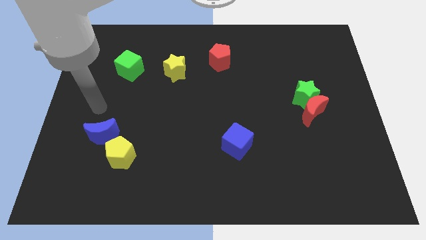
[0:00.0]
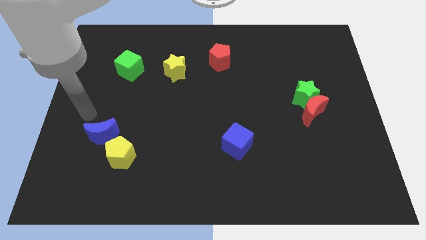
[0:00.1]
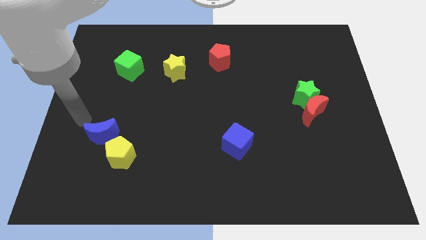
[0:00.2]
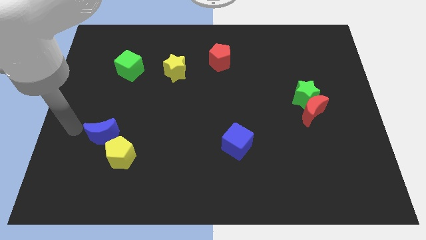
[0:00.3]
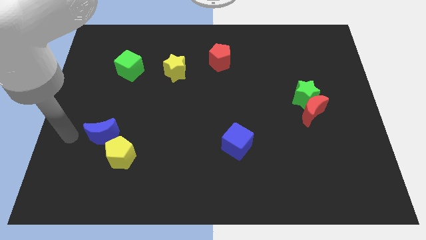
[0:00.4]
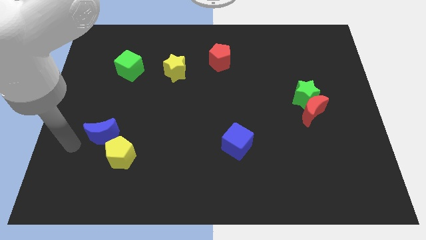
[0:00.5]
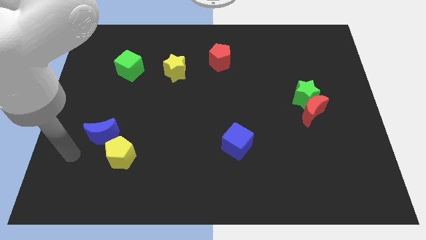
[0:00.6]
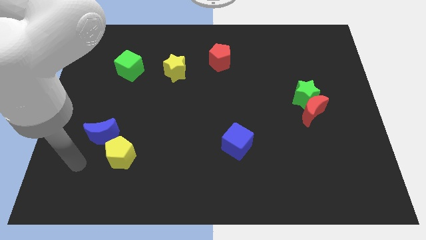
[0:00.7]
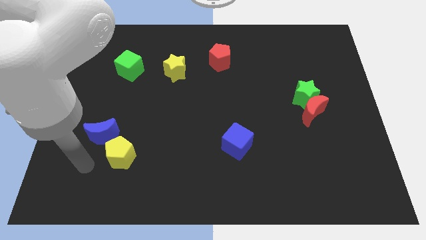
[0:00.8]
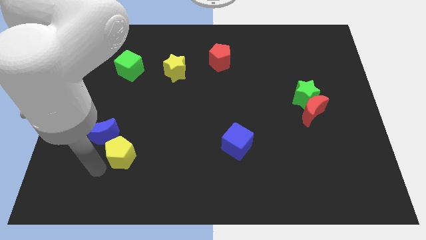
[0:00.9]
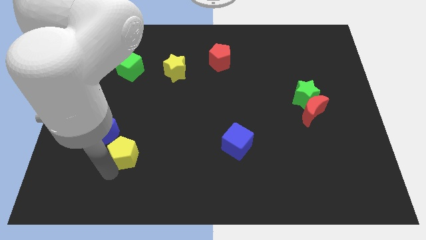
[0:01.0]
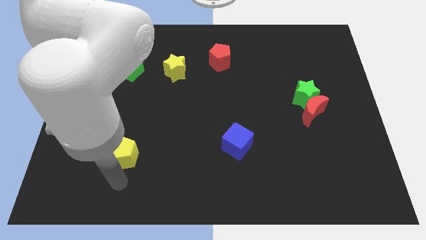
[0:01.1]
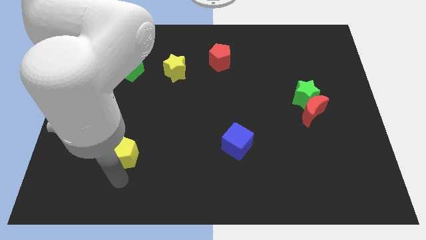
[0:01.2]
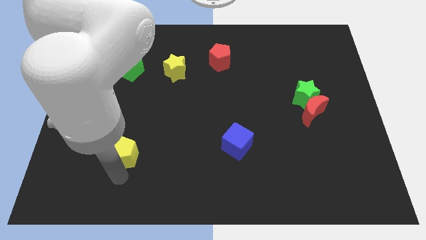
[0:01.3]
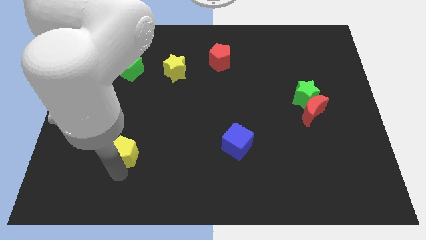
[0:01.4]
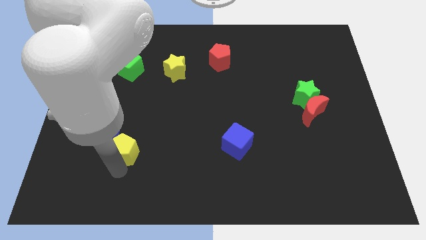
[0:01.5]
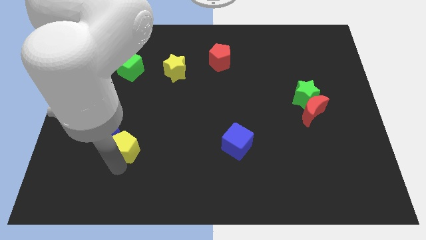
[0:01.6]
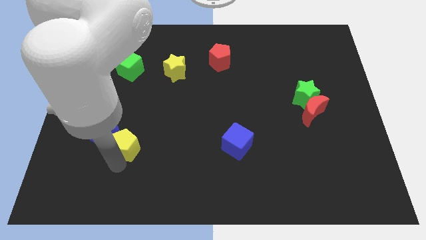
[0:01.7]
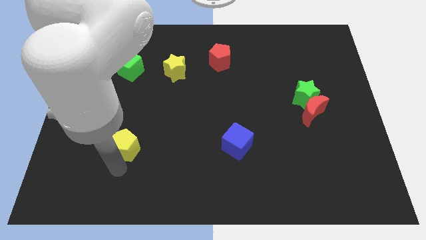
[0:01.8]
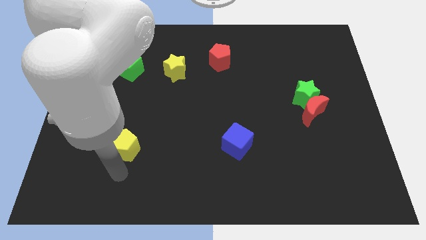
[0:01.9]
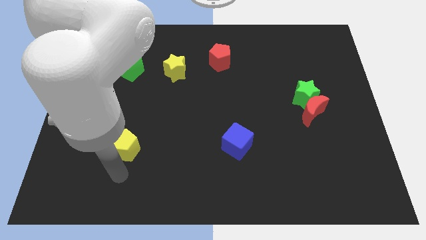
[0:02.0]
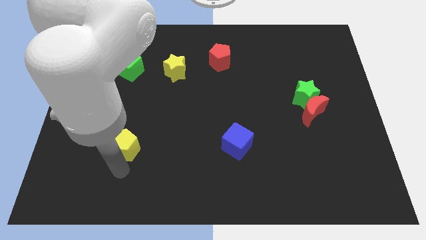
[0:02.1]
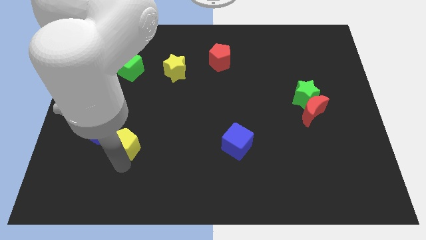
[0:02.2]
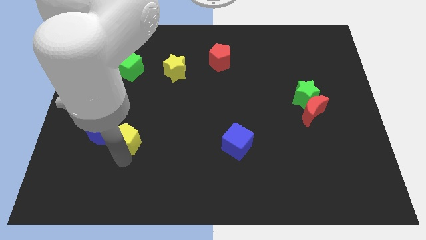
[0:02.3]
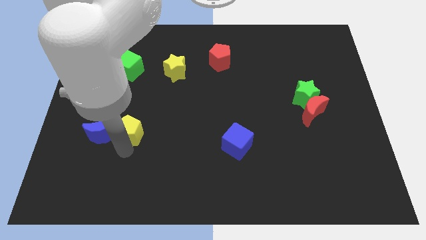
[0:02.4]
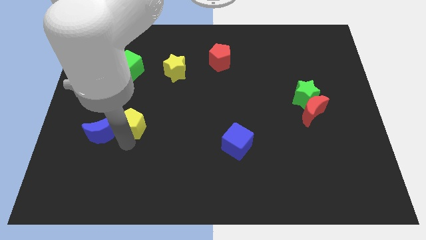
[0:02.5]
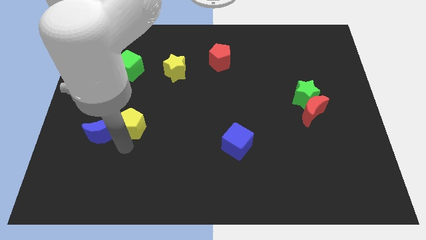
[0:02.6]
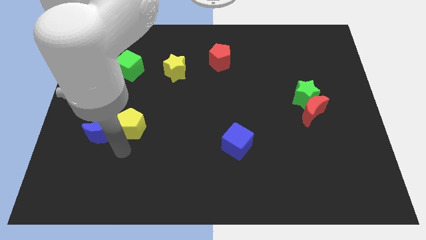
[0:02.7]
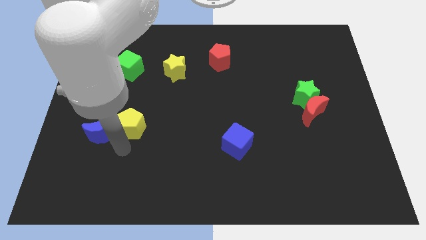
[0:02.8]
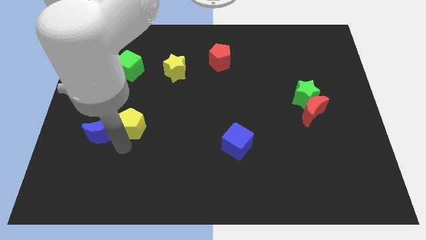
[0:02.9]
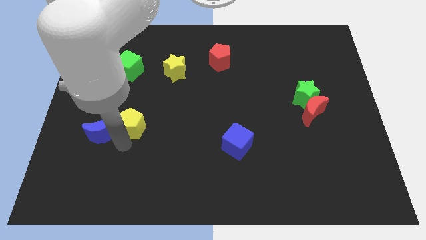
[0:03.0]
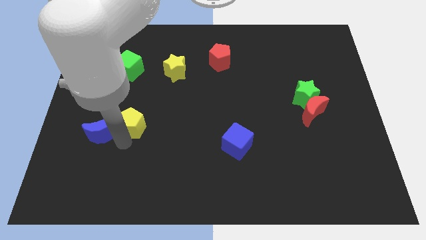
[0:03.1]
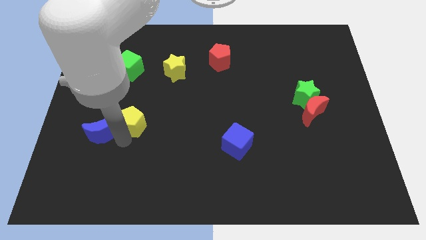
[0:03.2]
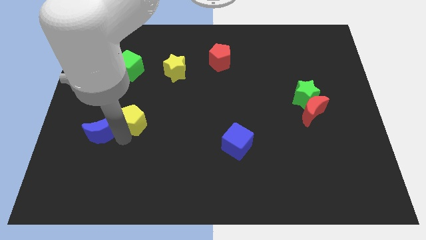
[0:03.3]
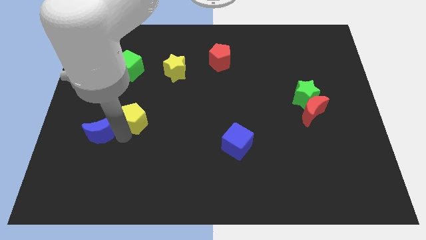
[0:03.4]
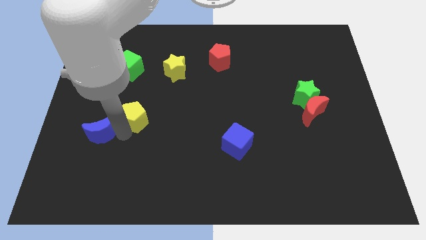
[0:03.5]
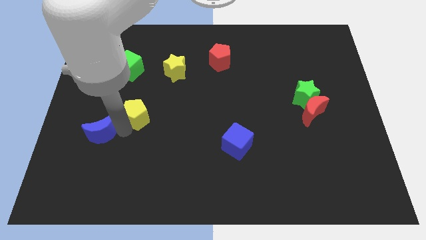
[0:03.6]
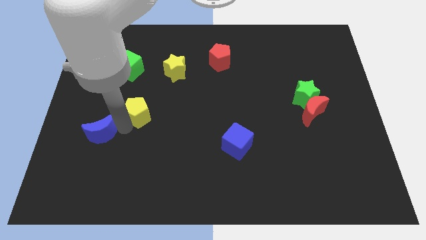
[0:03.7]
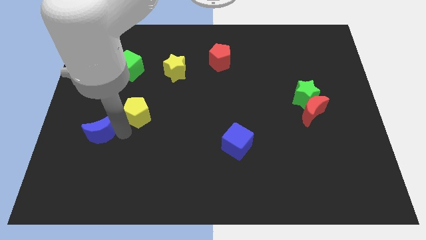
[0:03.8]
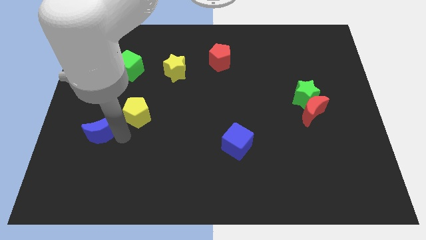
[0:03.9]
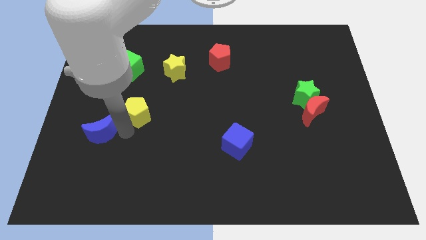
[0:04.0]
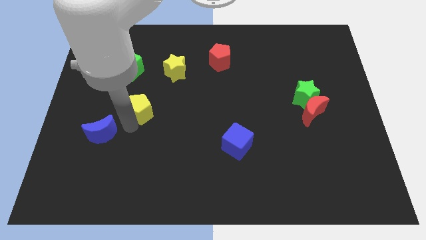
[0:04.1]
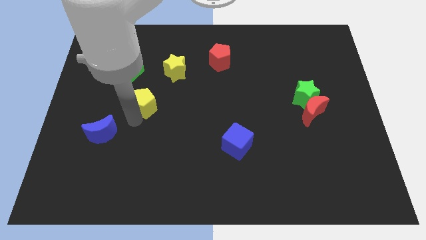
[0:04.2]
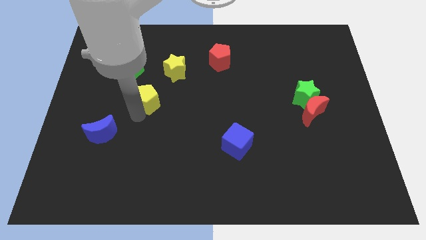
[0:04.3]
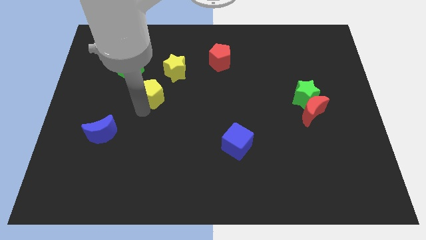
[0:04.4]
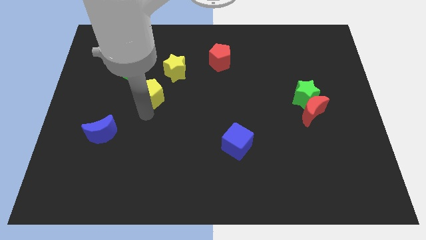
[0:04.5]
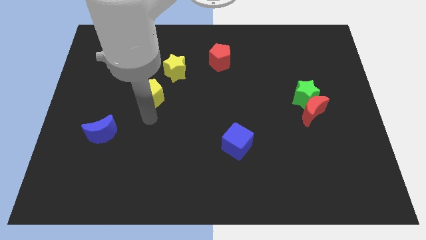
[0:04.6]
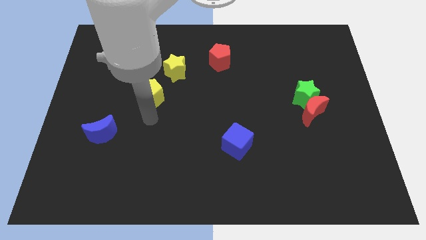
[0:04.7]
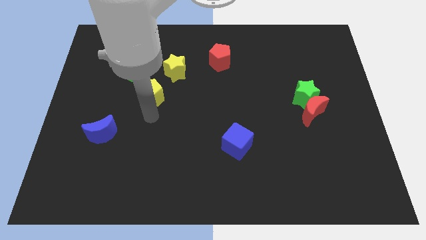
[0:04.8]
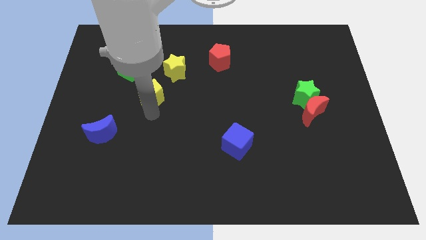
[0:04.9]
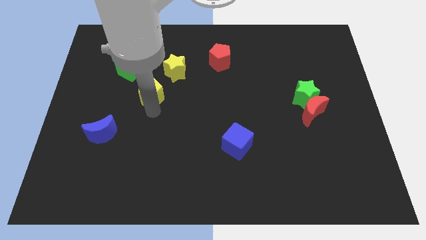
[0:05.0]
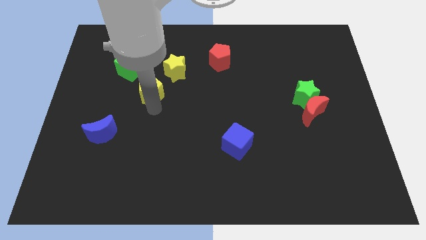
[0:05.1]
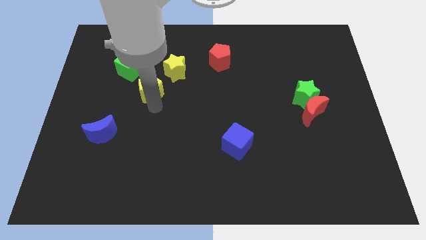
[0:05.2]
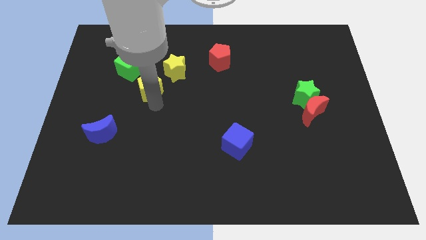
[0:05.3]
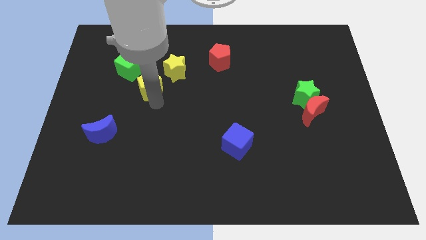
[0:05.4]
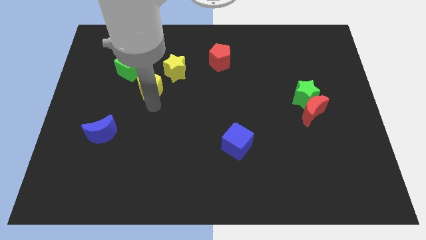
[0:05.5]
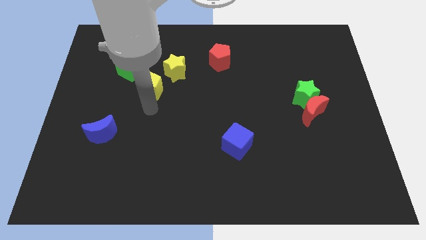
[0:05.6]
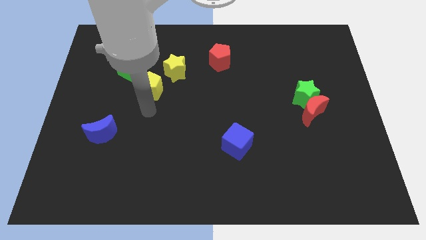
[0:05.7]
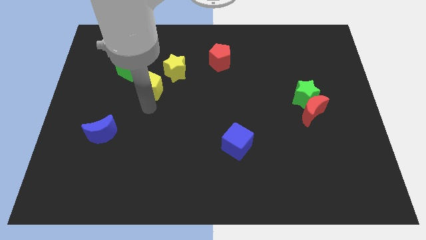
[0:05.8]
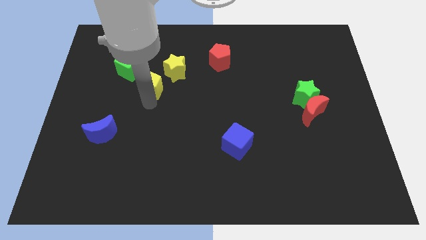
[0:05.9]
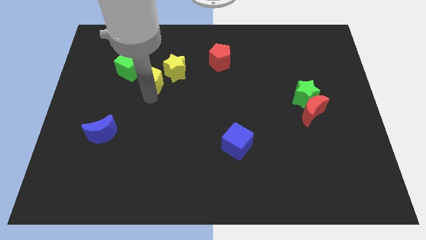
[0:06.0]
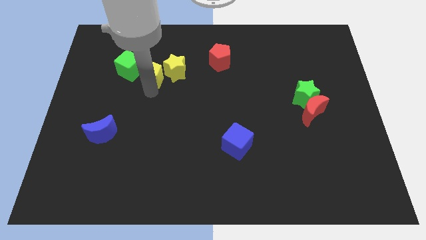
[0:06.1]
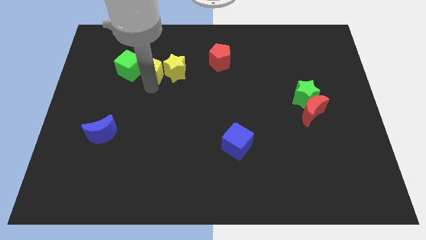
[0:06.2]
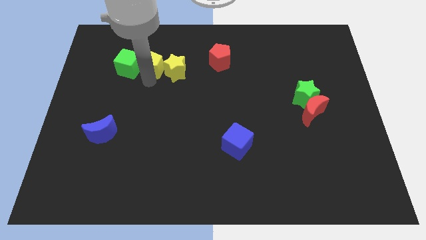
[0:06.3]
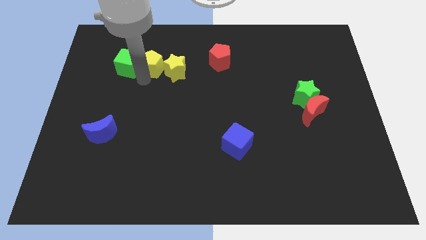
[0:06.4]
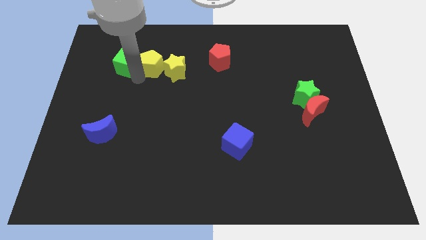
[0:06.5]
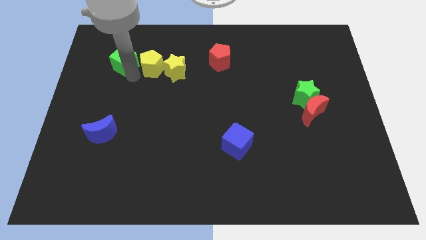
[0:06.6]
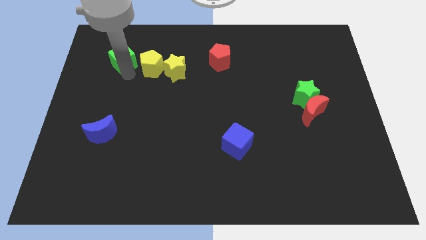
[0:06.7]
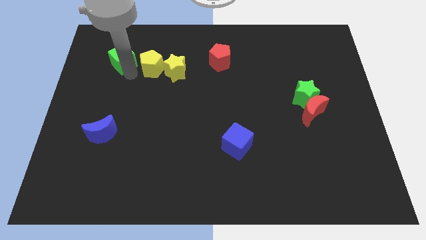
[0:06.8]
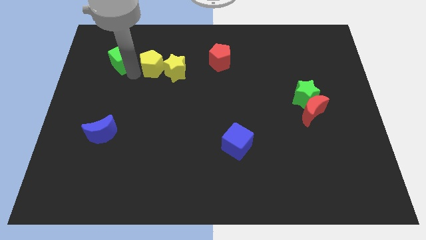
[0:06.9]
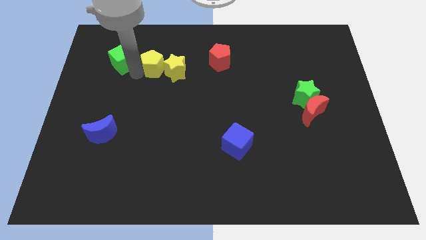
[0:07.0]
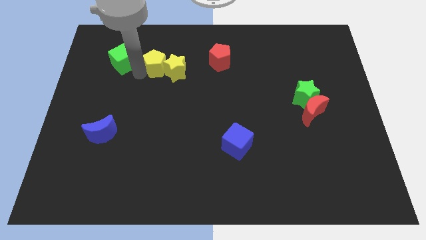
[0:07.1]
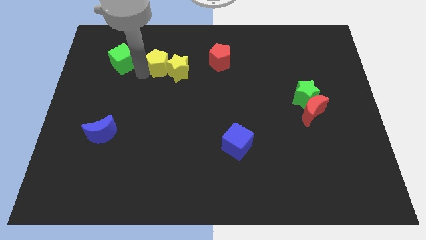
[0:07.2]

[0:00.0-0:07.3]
push the yellow pentagon just left of the red pentagon
